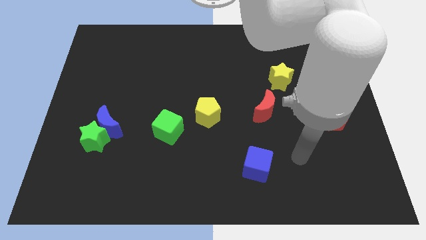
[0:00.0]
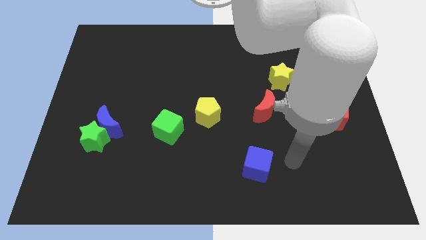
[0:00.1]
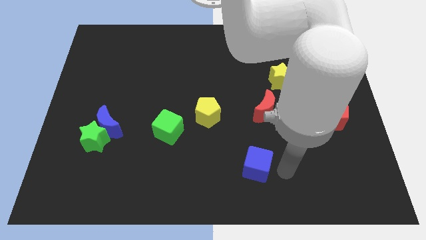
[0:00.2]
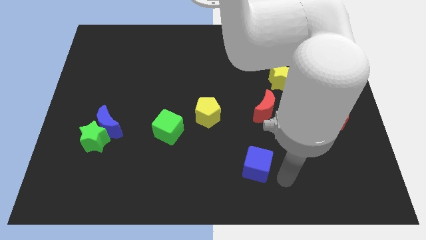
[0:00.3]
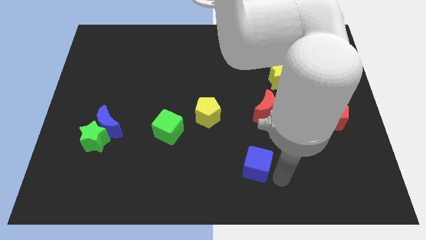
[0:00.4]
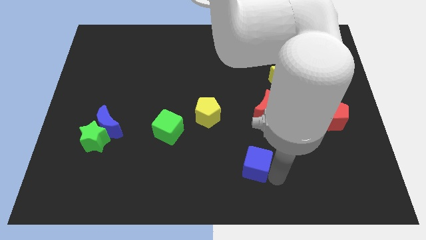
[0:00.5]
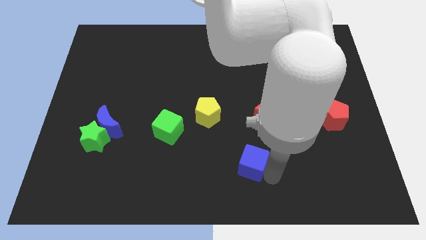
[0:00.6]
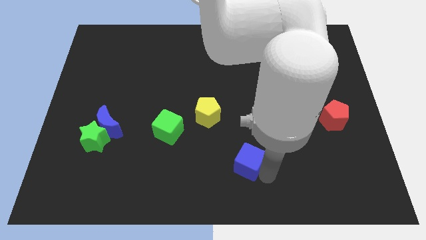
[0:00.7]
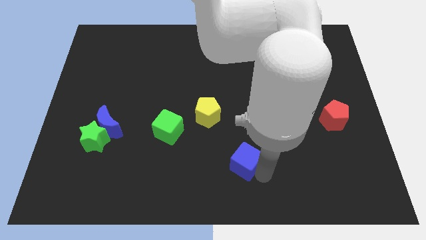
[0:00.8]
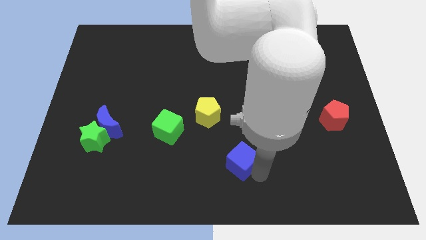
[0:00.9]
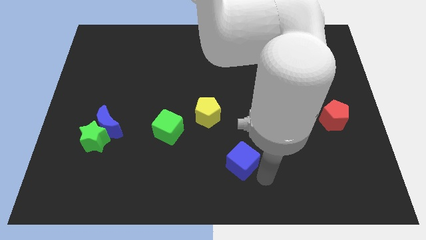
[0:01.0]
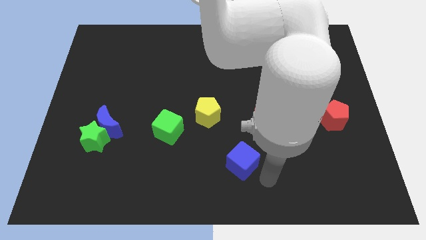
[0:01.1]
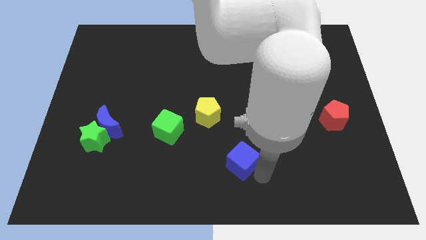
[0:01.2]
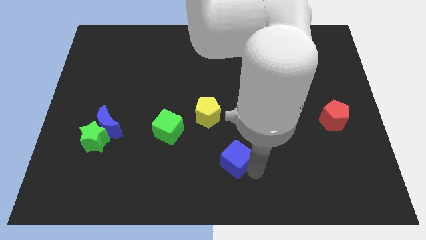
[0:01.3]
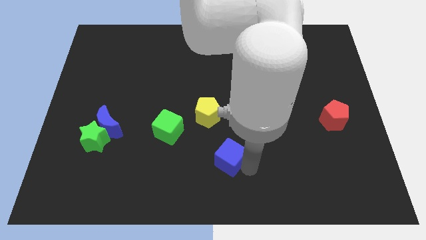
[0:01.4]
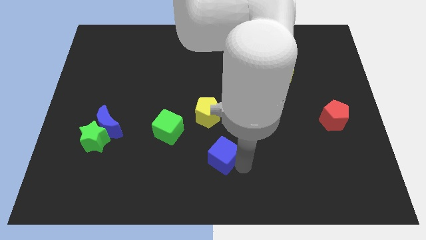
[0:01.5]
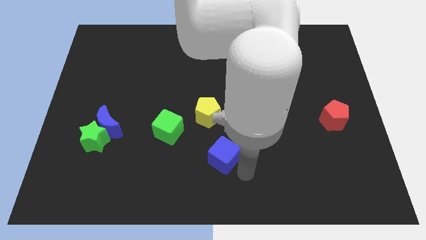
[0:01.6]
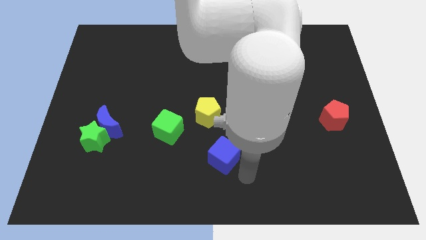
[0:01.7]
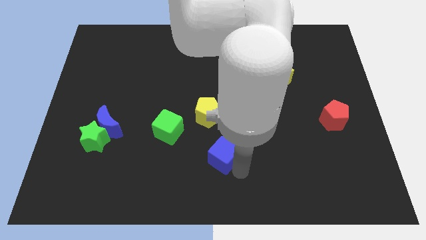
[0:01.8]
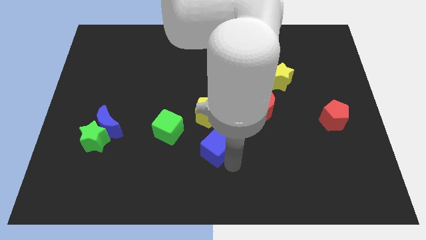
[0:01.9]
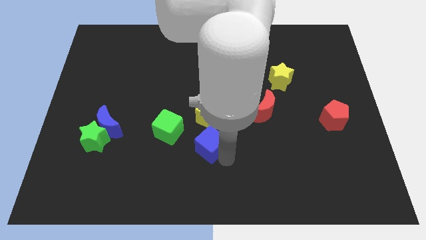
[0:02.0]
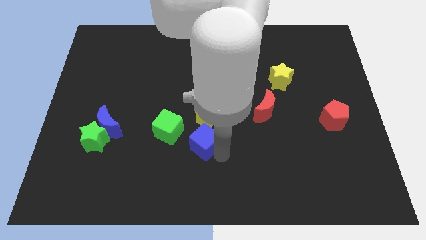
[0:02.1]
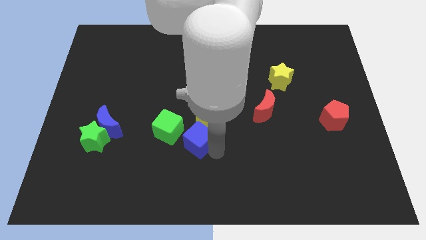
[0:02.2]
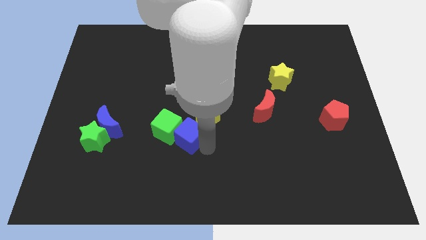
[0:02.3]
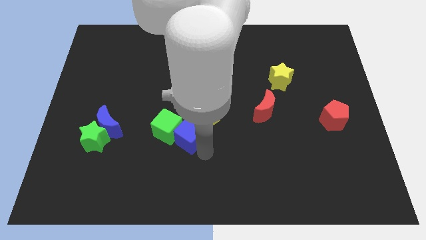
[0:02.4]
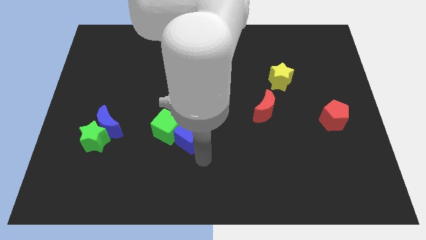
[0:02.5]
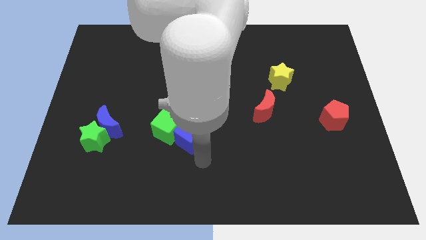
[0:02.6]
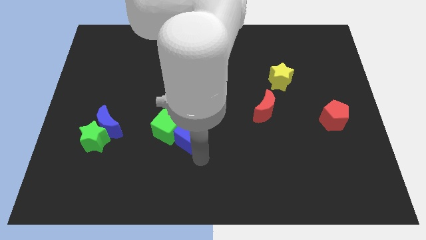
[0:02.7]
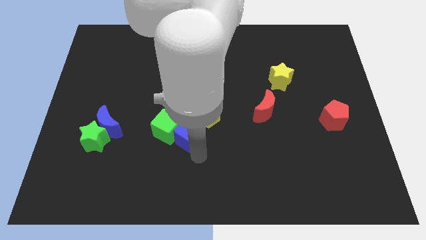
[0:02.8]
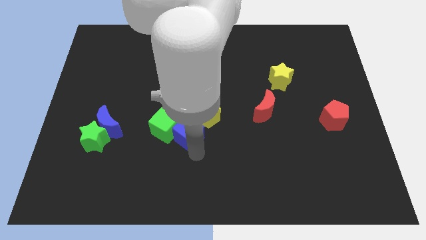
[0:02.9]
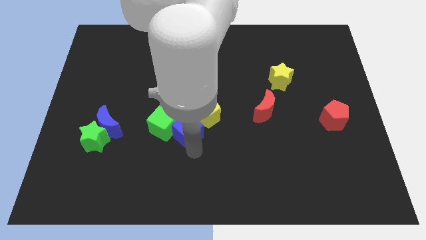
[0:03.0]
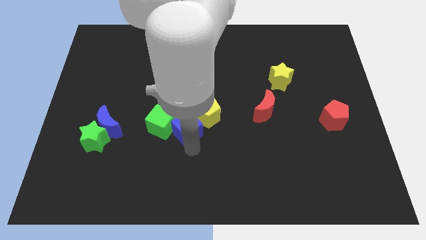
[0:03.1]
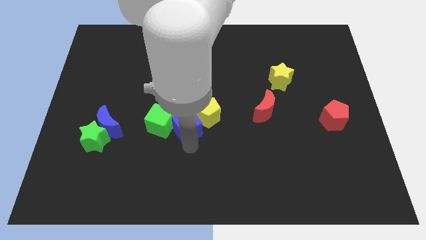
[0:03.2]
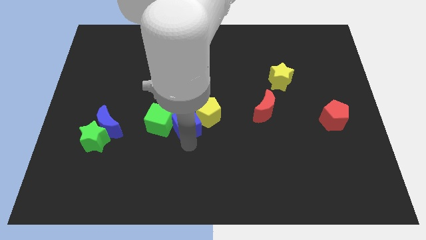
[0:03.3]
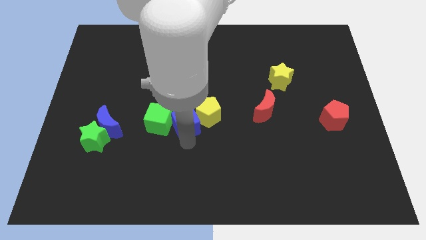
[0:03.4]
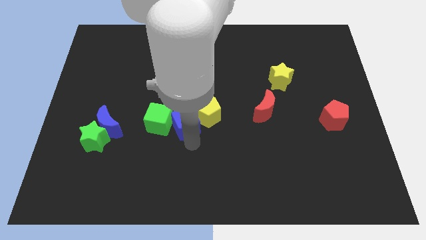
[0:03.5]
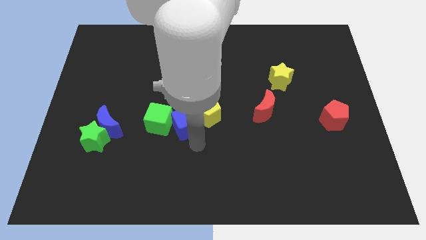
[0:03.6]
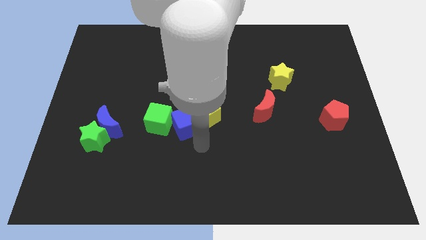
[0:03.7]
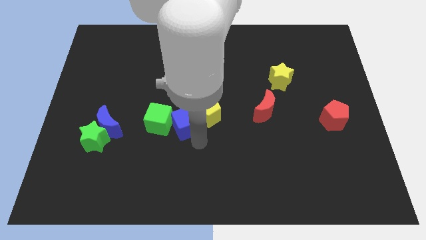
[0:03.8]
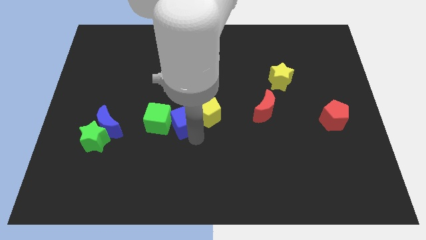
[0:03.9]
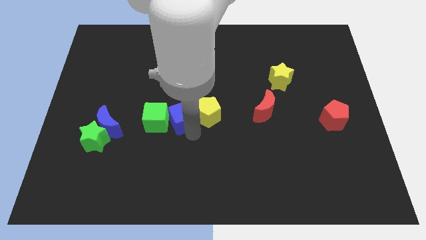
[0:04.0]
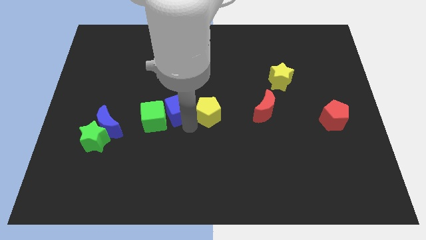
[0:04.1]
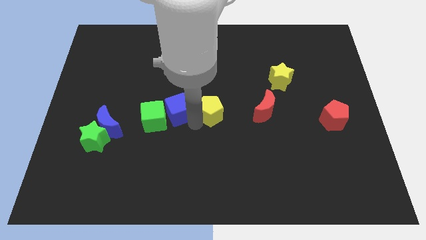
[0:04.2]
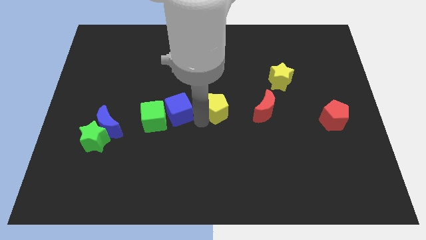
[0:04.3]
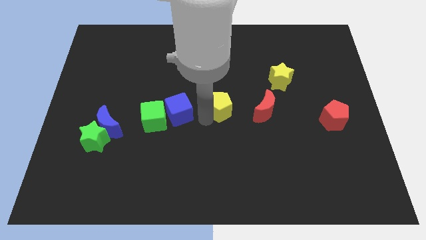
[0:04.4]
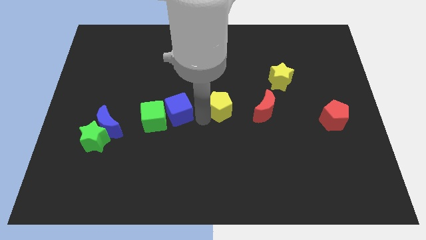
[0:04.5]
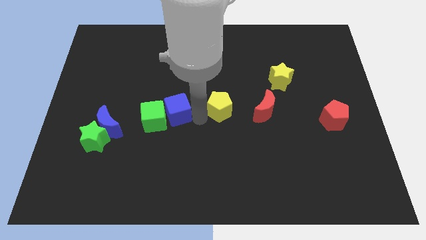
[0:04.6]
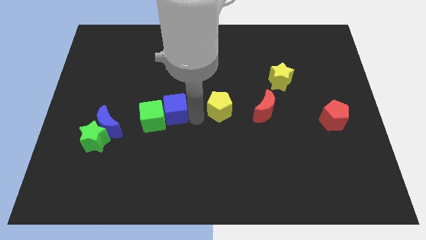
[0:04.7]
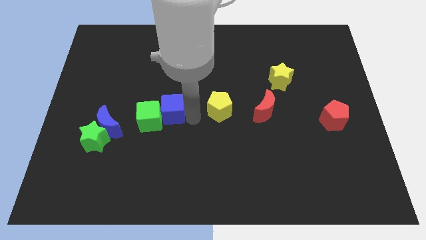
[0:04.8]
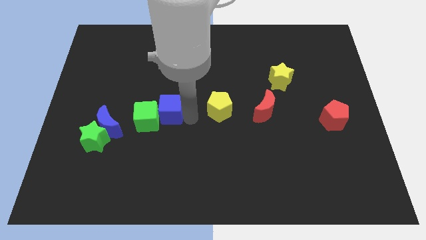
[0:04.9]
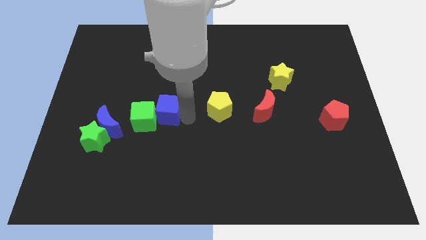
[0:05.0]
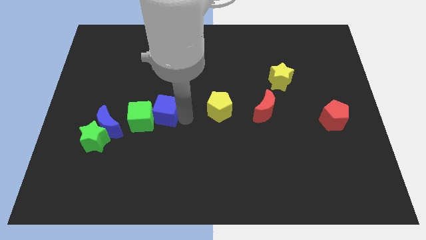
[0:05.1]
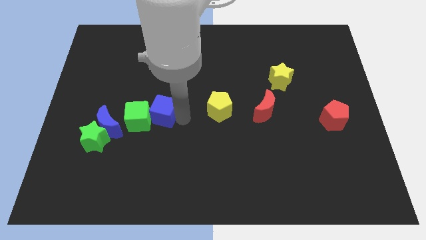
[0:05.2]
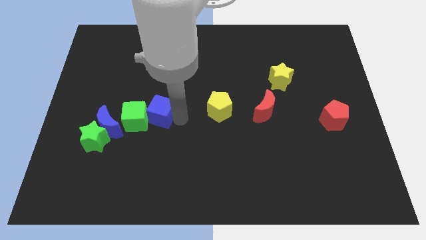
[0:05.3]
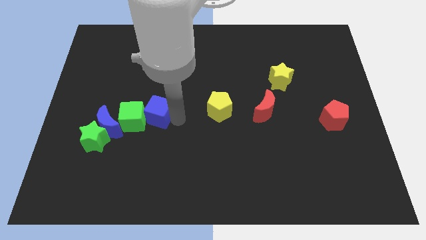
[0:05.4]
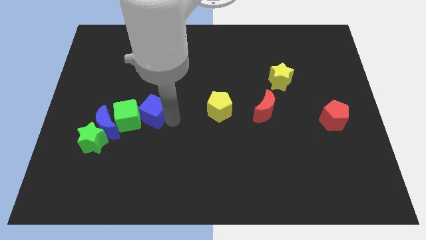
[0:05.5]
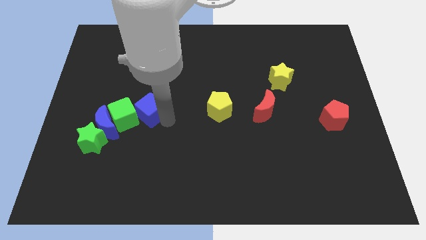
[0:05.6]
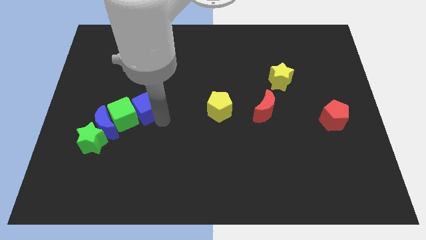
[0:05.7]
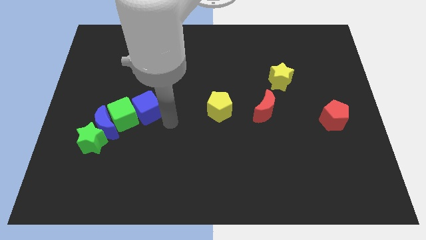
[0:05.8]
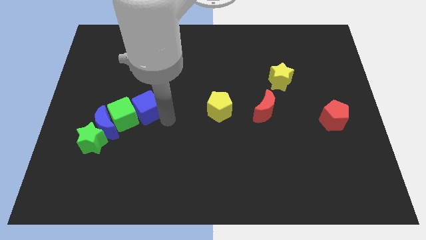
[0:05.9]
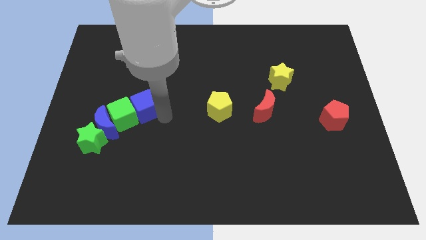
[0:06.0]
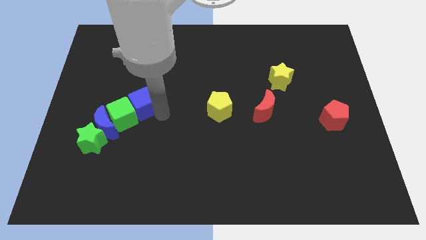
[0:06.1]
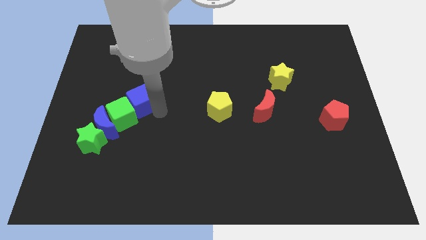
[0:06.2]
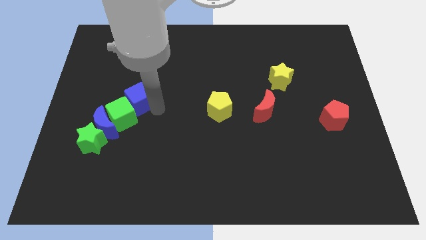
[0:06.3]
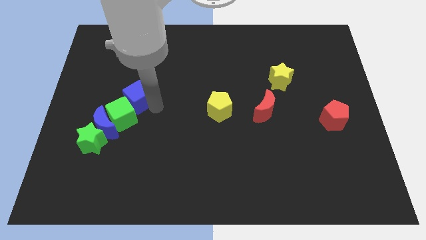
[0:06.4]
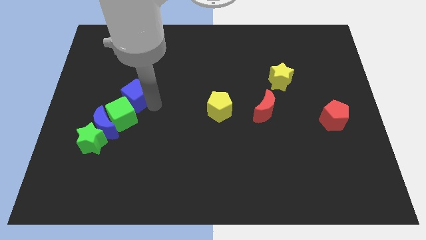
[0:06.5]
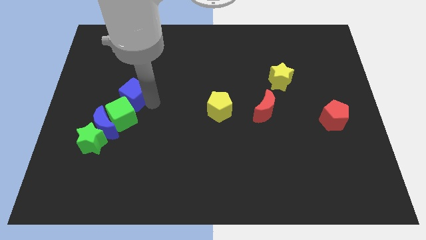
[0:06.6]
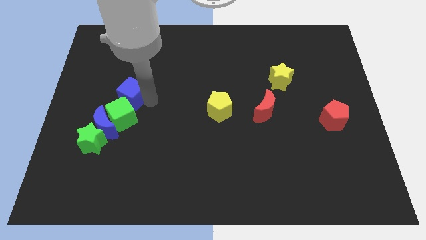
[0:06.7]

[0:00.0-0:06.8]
put the blue cube to the top of the blue moon
